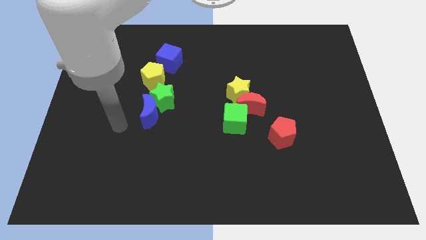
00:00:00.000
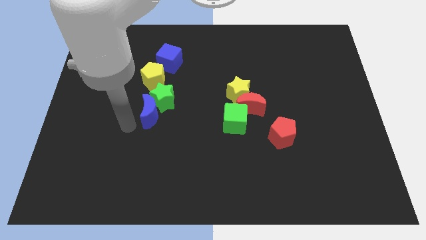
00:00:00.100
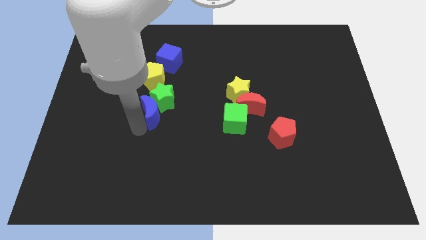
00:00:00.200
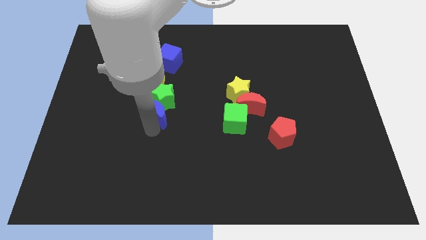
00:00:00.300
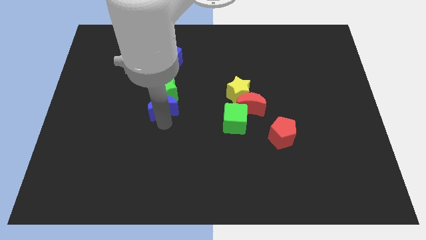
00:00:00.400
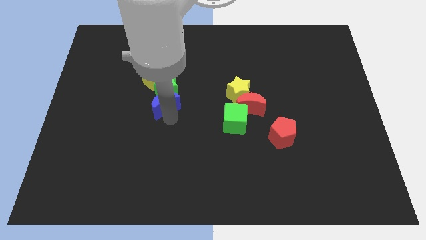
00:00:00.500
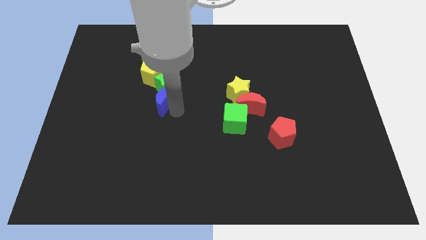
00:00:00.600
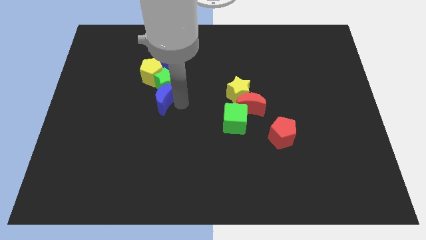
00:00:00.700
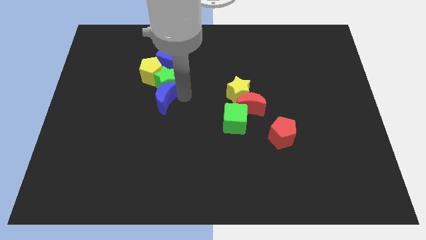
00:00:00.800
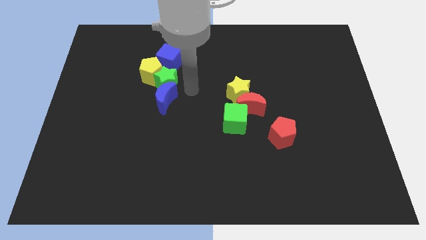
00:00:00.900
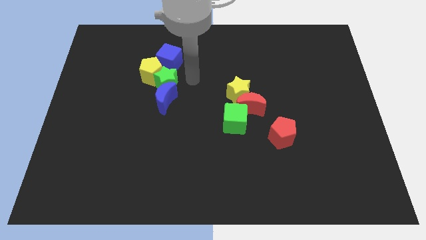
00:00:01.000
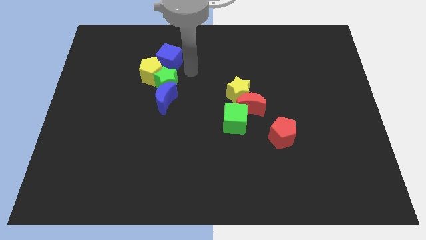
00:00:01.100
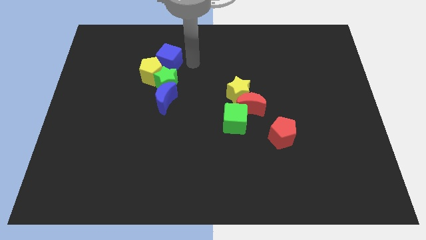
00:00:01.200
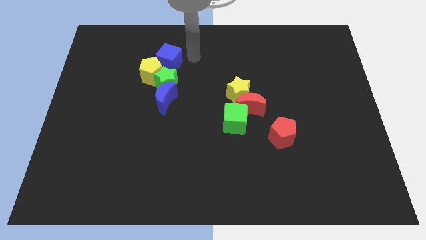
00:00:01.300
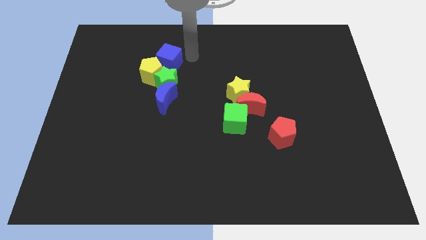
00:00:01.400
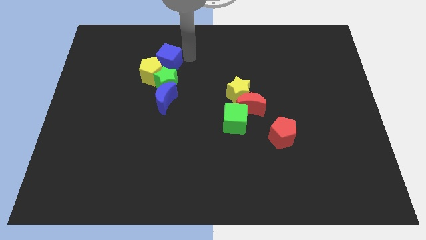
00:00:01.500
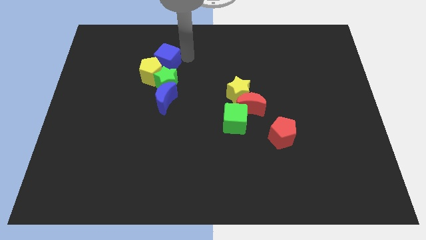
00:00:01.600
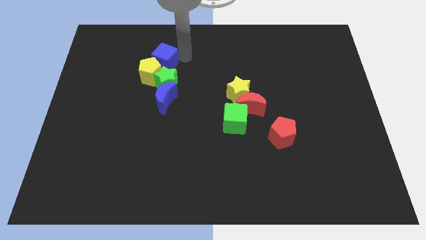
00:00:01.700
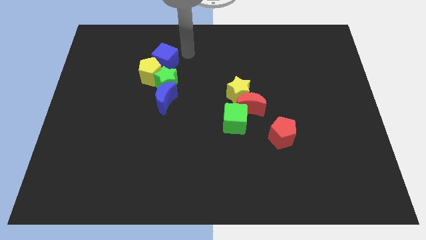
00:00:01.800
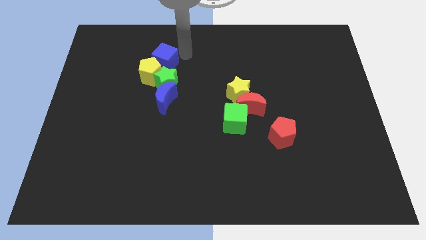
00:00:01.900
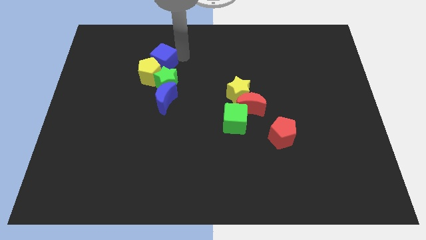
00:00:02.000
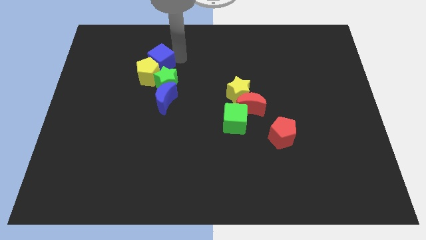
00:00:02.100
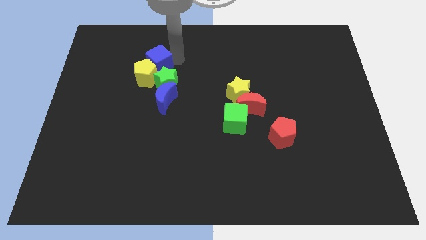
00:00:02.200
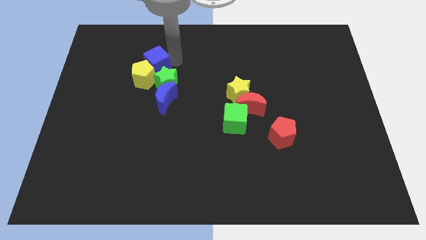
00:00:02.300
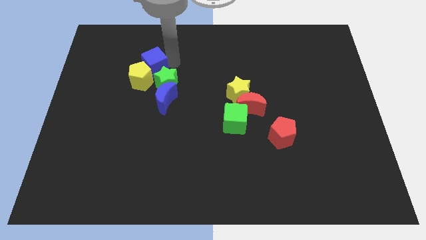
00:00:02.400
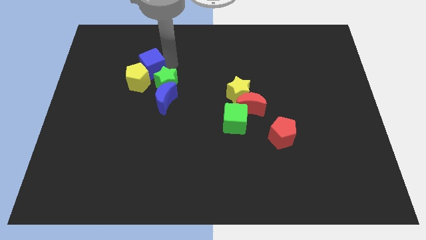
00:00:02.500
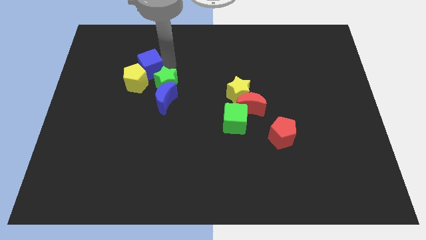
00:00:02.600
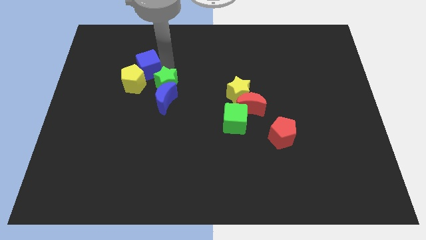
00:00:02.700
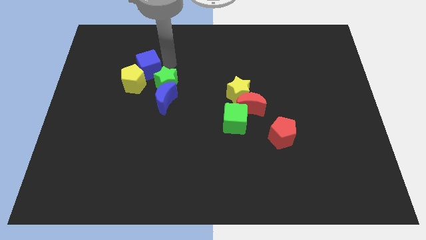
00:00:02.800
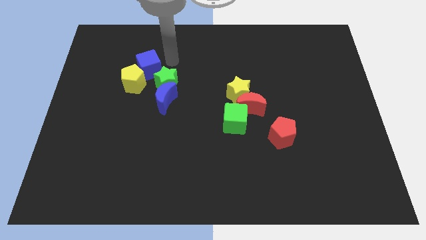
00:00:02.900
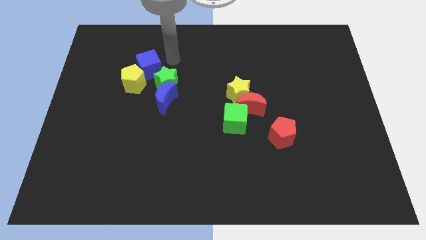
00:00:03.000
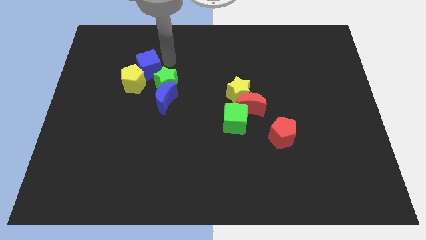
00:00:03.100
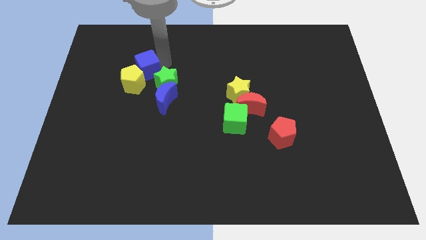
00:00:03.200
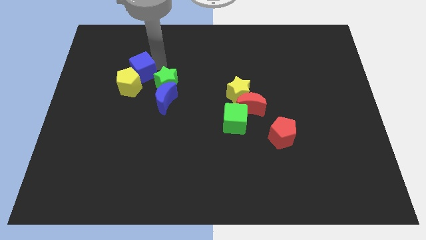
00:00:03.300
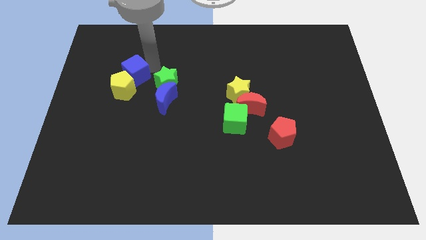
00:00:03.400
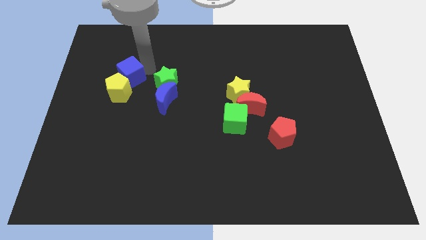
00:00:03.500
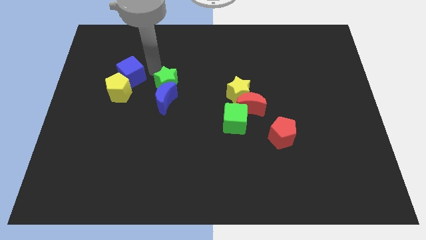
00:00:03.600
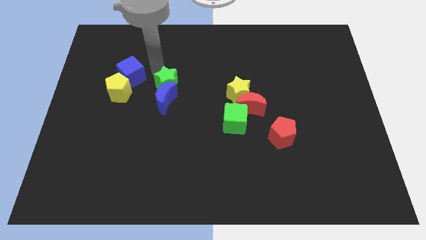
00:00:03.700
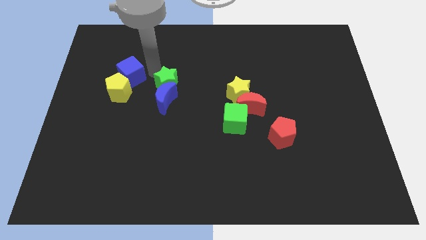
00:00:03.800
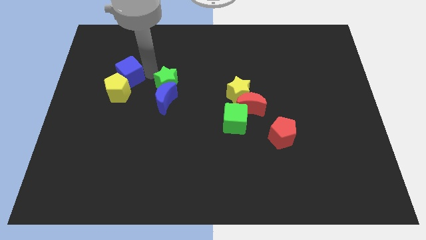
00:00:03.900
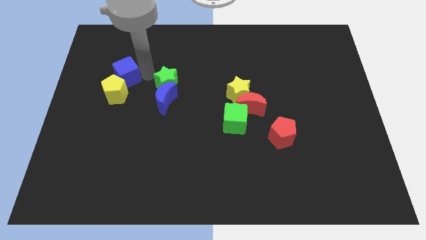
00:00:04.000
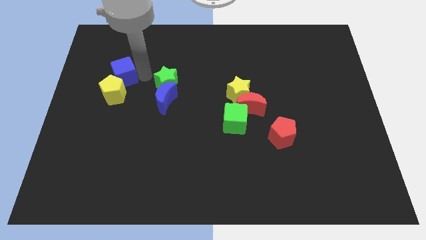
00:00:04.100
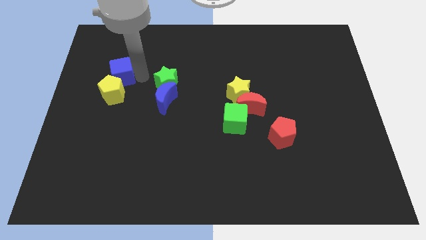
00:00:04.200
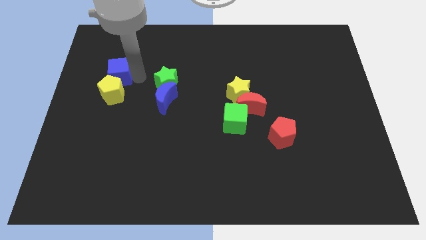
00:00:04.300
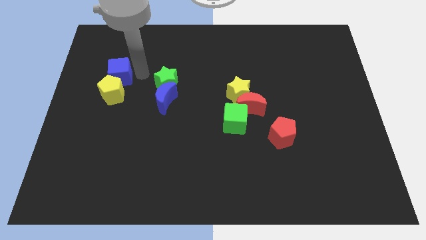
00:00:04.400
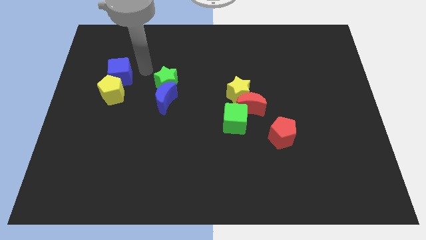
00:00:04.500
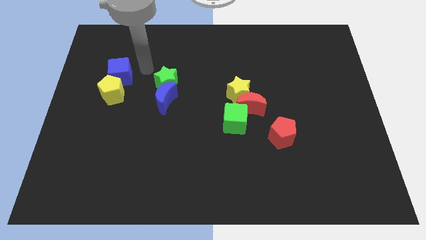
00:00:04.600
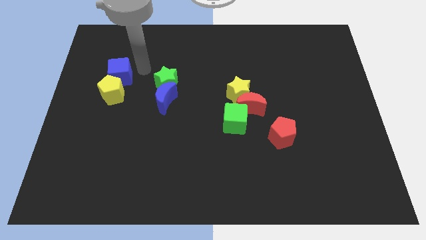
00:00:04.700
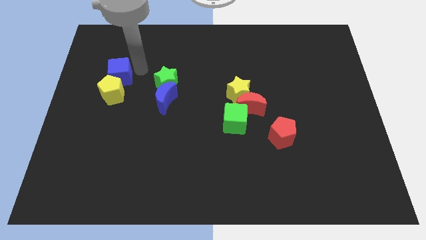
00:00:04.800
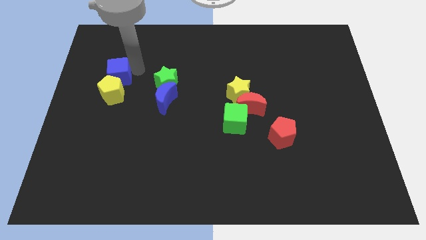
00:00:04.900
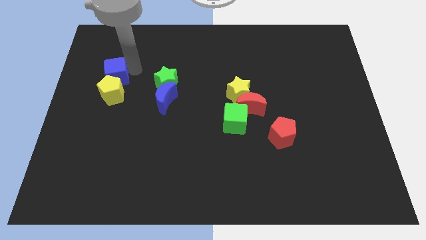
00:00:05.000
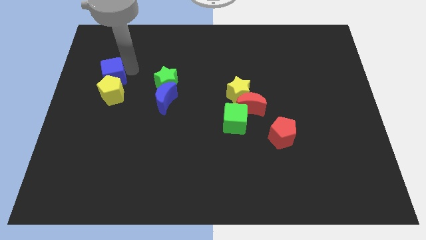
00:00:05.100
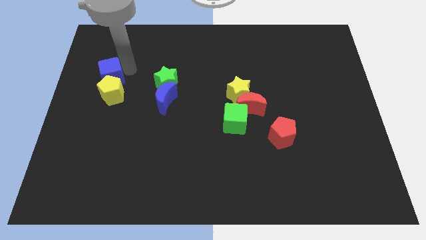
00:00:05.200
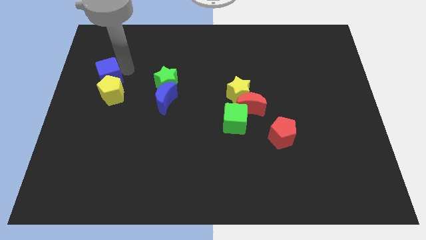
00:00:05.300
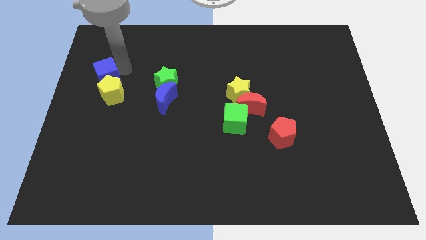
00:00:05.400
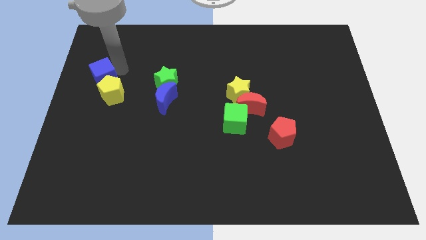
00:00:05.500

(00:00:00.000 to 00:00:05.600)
move the blue cube to the center left

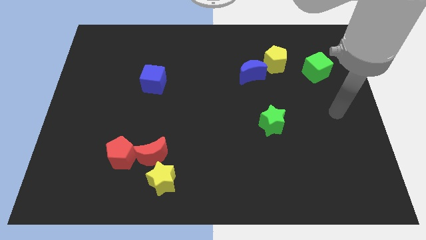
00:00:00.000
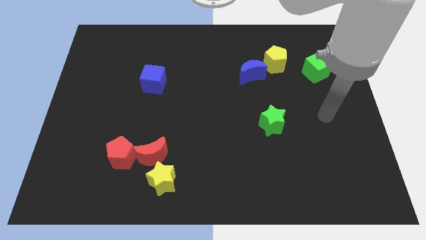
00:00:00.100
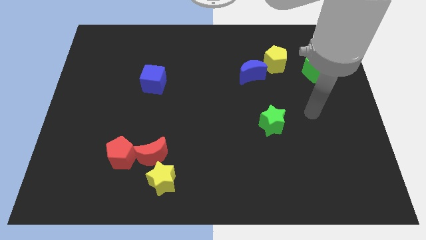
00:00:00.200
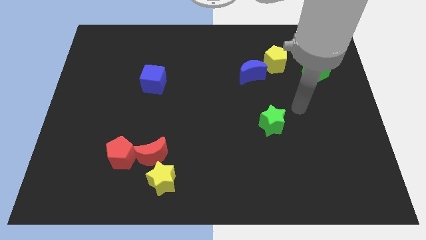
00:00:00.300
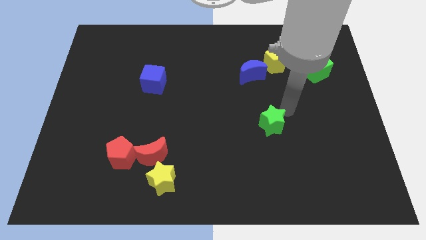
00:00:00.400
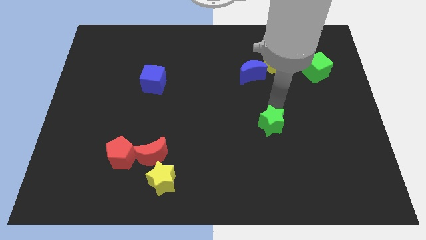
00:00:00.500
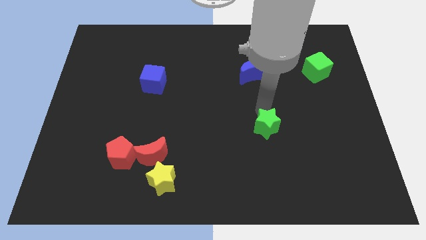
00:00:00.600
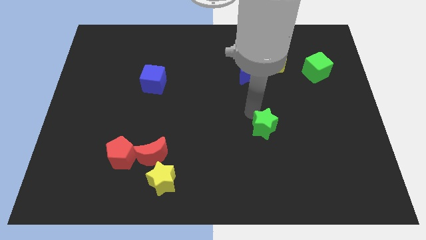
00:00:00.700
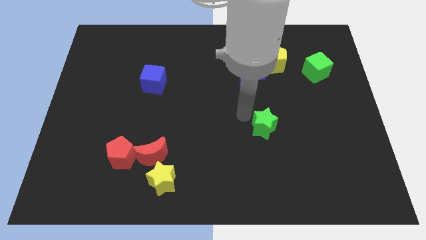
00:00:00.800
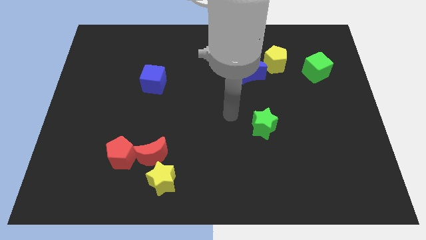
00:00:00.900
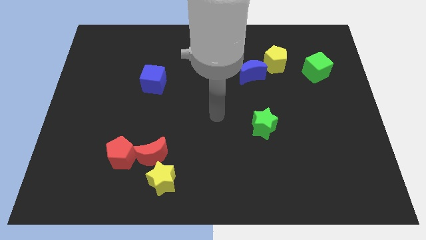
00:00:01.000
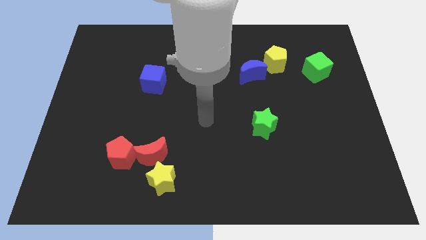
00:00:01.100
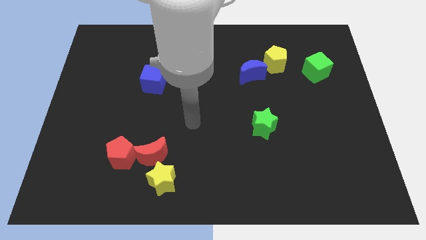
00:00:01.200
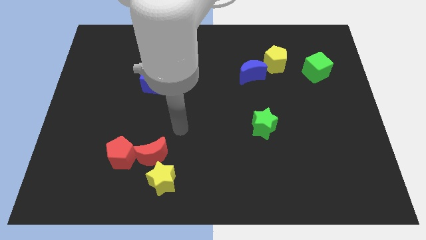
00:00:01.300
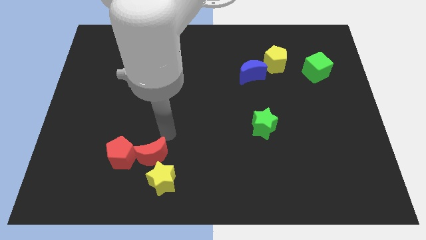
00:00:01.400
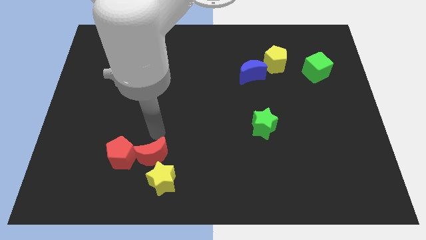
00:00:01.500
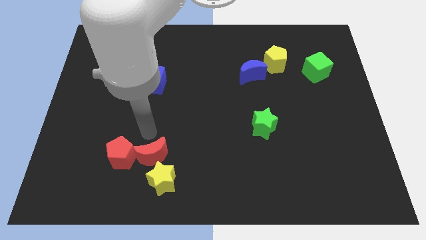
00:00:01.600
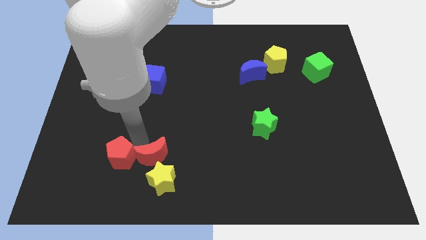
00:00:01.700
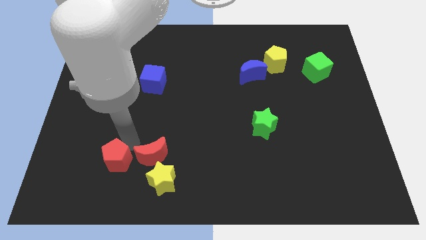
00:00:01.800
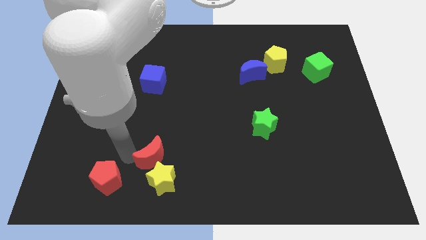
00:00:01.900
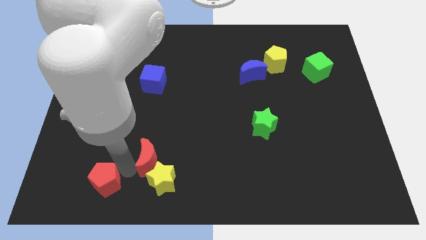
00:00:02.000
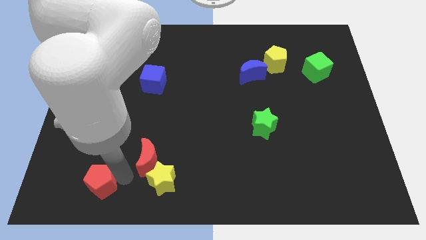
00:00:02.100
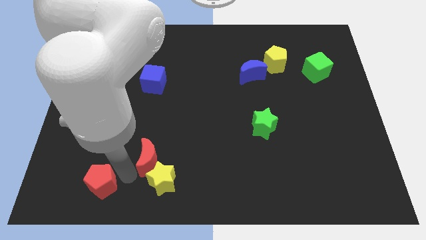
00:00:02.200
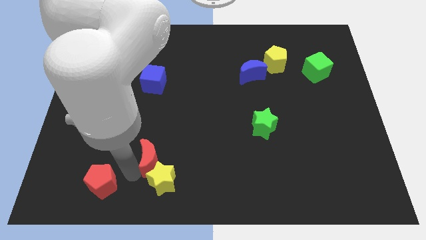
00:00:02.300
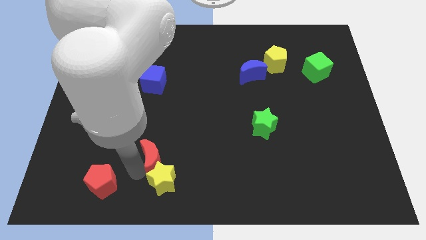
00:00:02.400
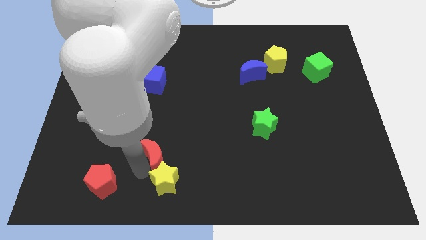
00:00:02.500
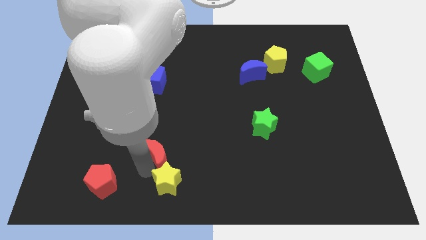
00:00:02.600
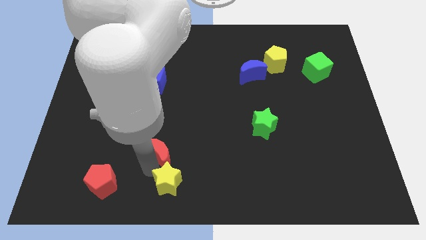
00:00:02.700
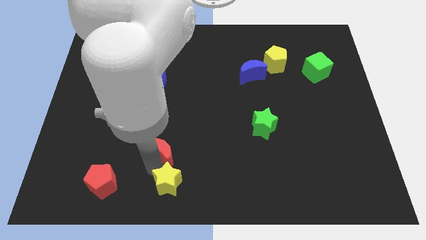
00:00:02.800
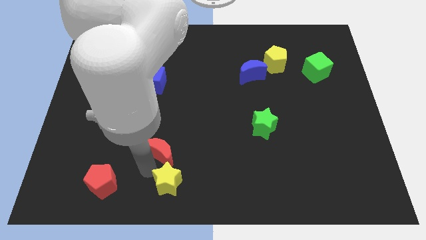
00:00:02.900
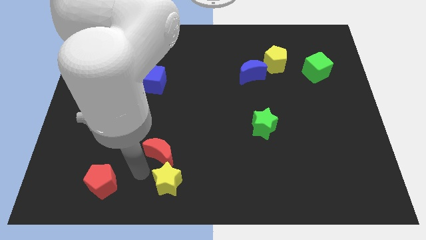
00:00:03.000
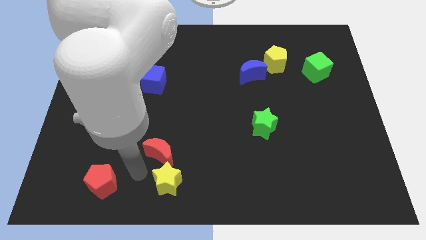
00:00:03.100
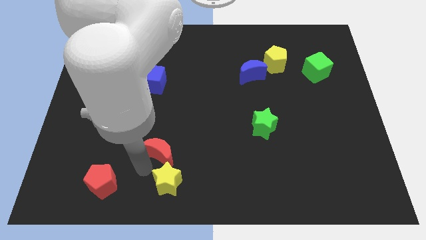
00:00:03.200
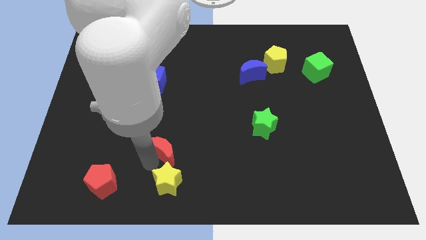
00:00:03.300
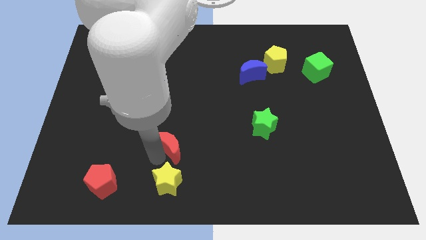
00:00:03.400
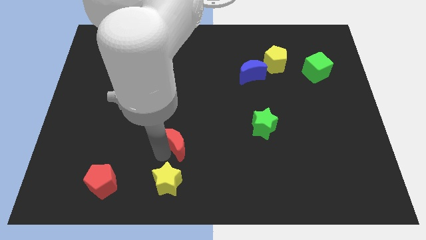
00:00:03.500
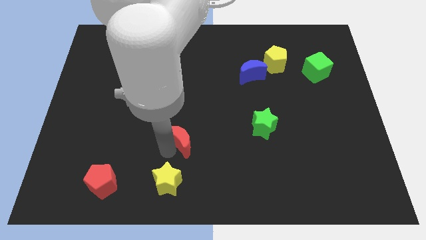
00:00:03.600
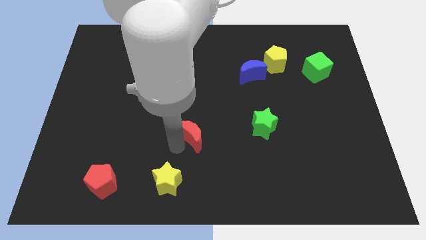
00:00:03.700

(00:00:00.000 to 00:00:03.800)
slide the red moon to the center of the board
